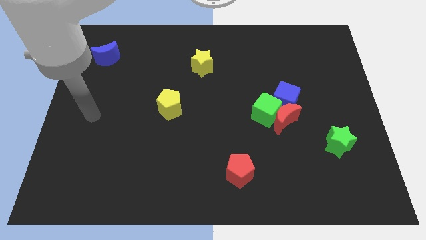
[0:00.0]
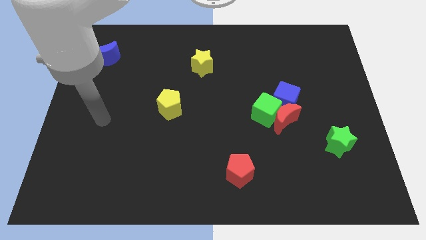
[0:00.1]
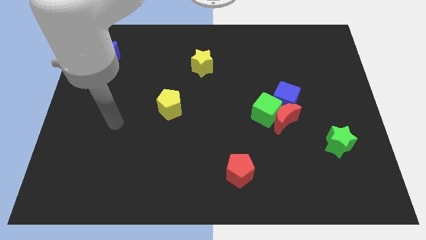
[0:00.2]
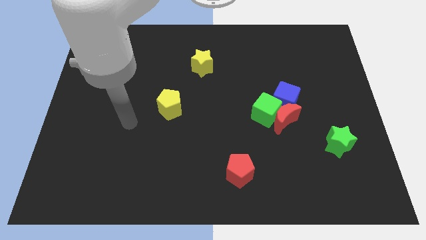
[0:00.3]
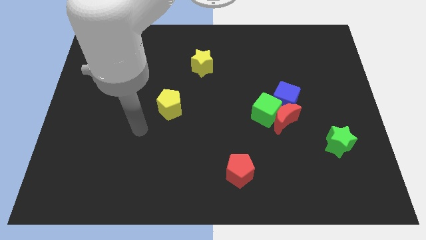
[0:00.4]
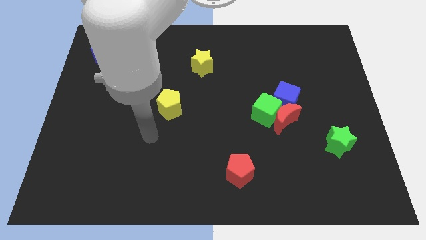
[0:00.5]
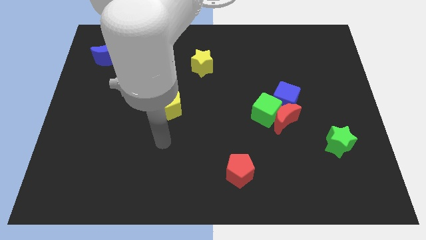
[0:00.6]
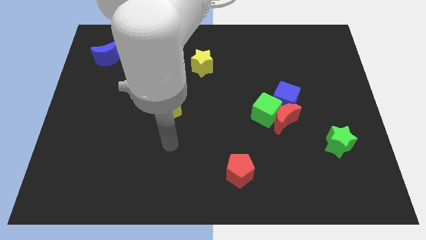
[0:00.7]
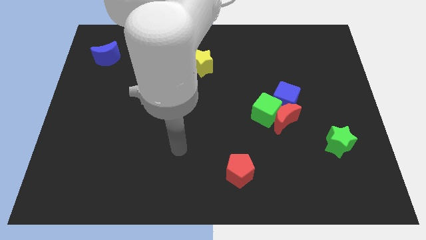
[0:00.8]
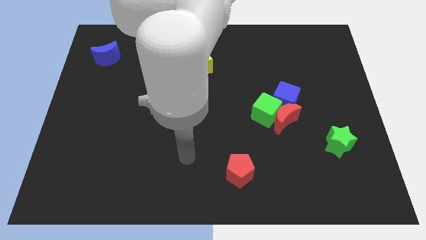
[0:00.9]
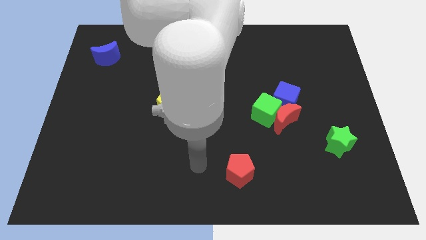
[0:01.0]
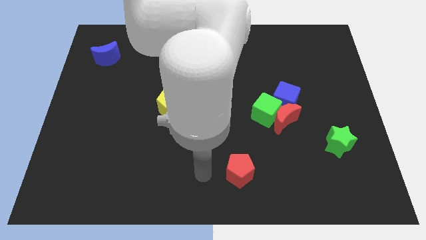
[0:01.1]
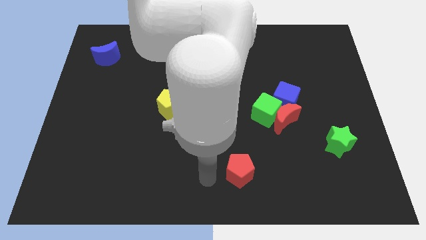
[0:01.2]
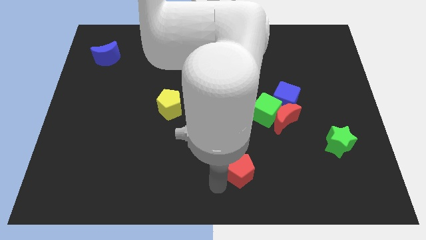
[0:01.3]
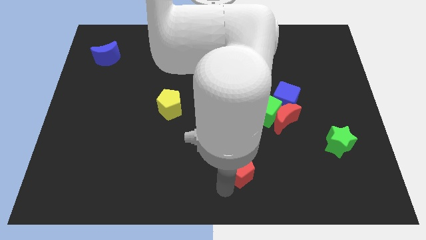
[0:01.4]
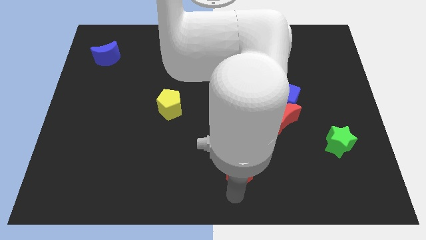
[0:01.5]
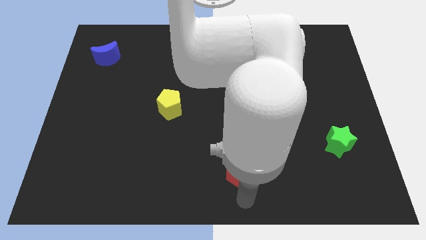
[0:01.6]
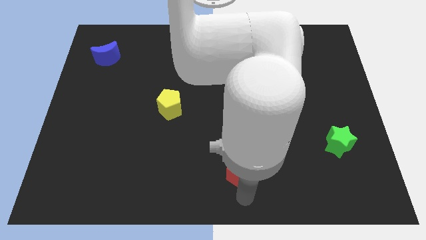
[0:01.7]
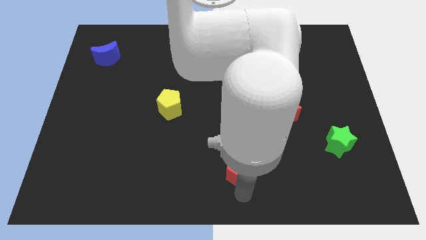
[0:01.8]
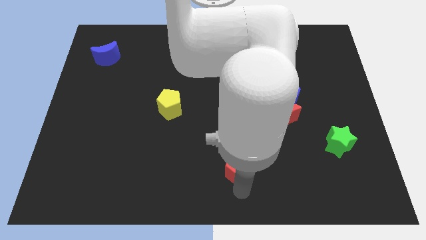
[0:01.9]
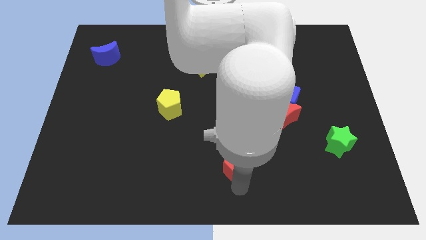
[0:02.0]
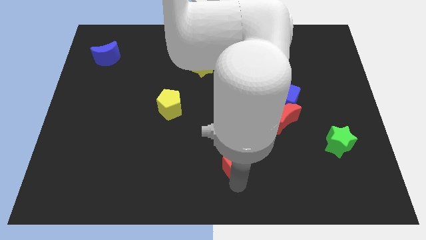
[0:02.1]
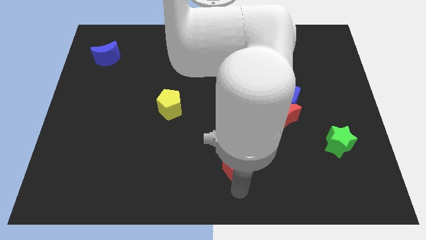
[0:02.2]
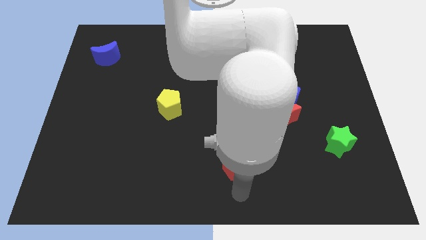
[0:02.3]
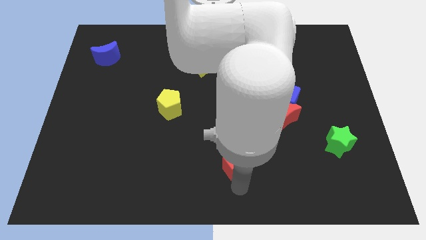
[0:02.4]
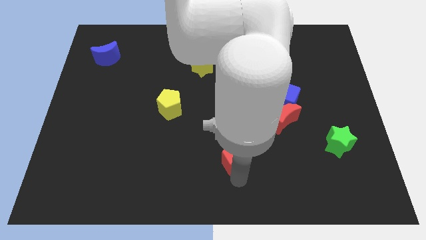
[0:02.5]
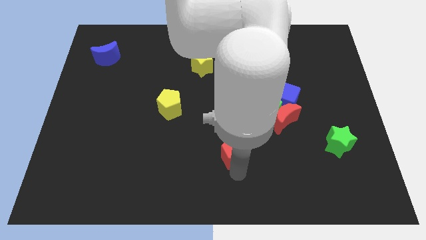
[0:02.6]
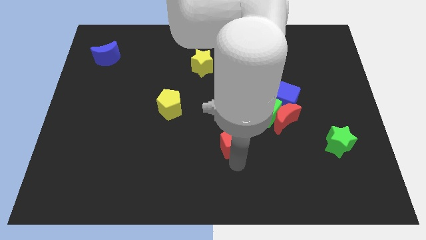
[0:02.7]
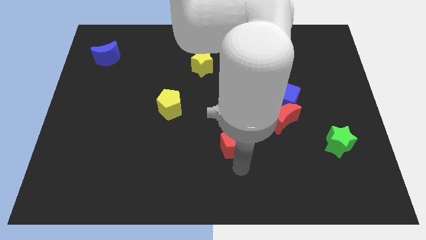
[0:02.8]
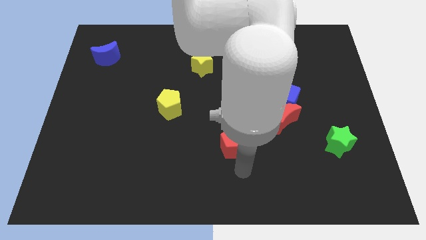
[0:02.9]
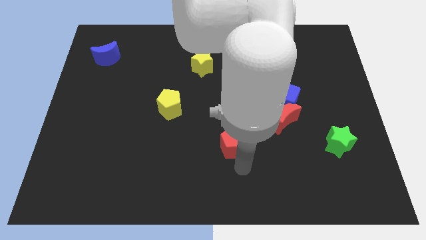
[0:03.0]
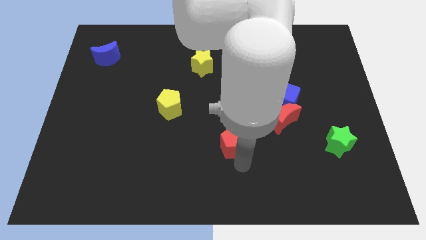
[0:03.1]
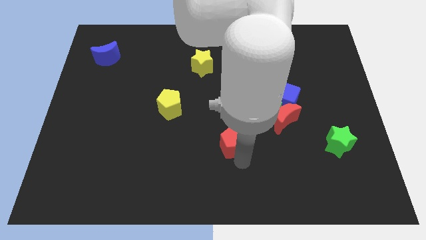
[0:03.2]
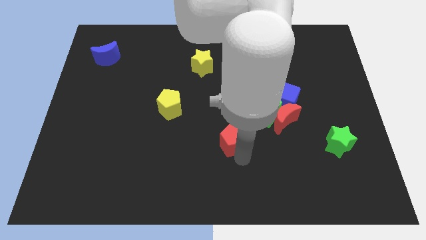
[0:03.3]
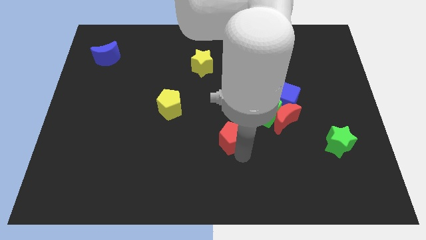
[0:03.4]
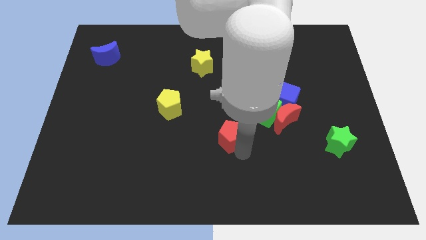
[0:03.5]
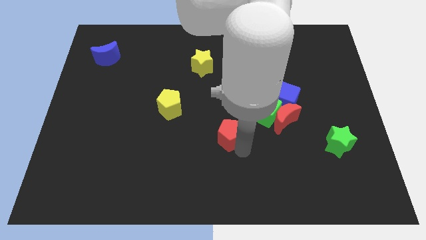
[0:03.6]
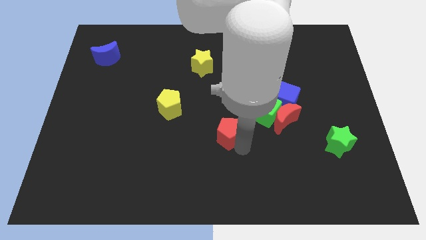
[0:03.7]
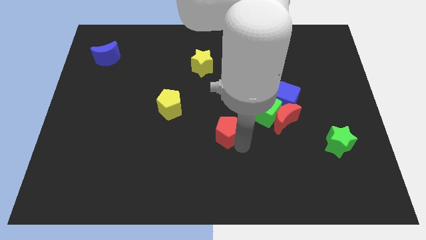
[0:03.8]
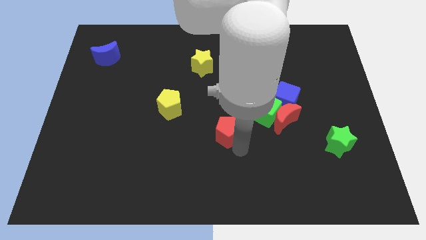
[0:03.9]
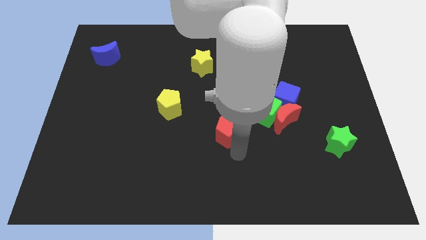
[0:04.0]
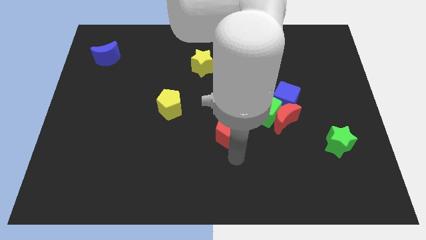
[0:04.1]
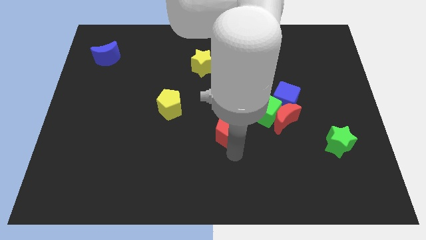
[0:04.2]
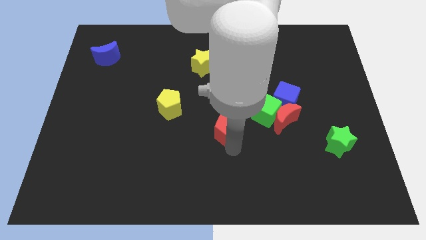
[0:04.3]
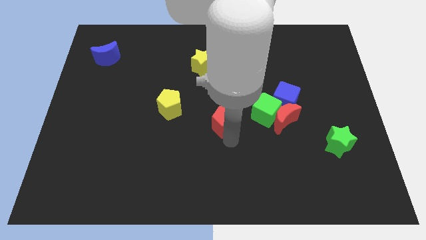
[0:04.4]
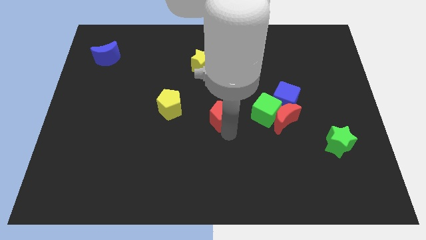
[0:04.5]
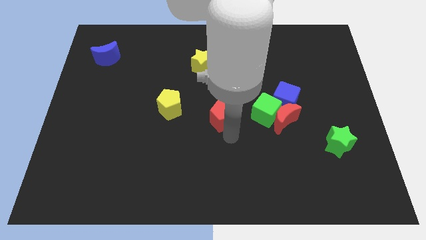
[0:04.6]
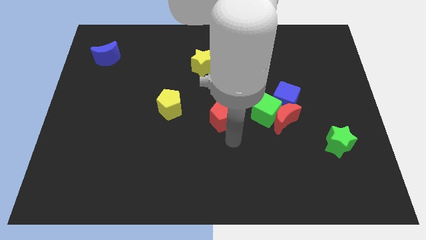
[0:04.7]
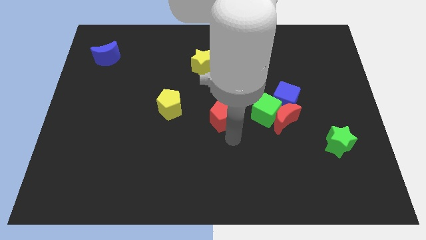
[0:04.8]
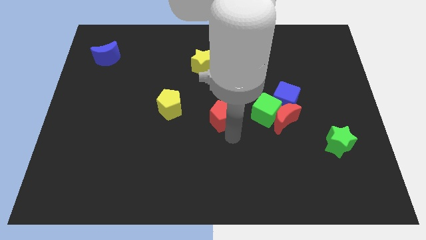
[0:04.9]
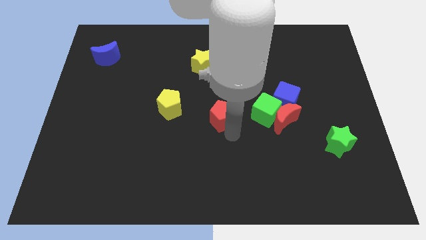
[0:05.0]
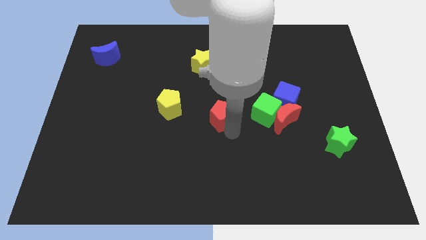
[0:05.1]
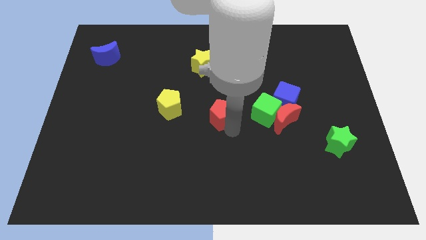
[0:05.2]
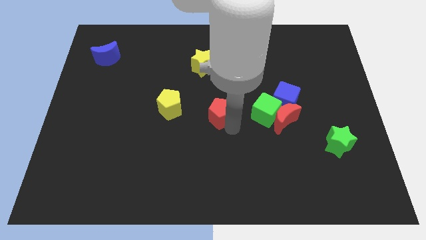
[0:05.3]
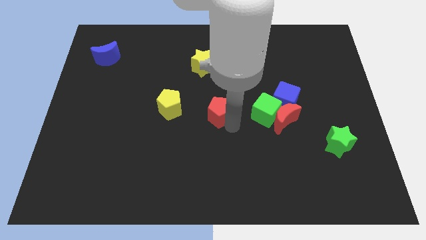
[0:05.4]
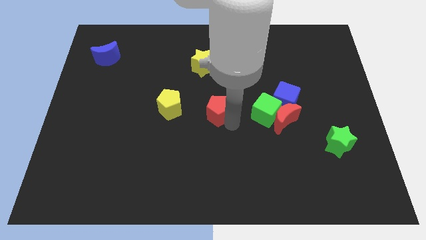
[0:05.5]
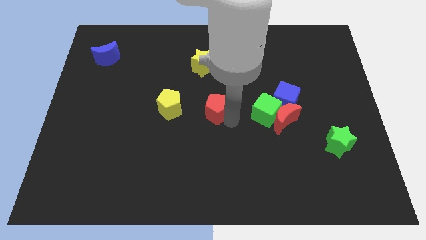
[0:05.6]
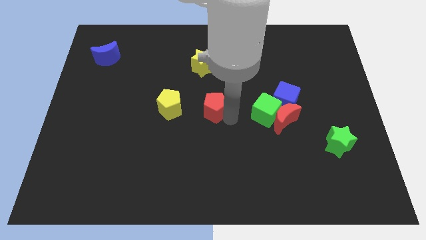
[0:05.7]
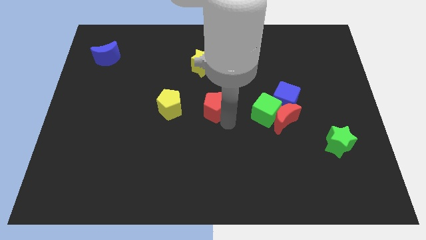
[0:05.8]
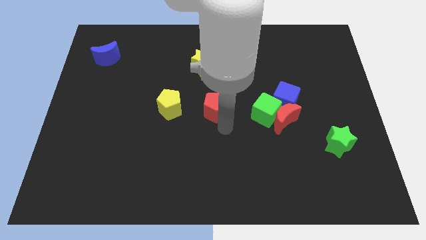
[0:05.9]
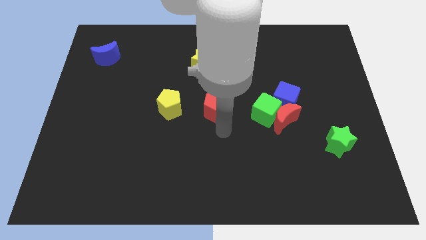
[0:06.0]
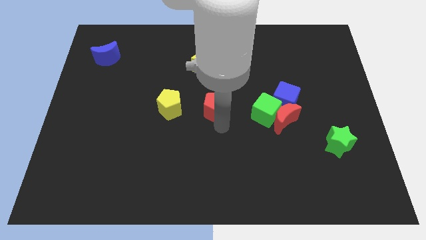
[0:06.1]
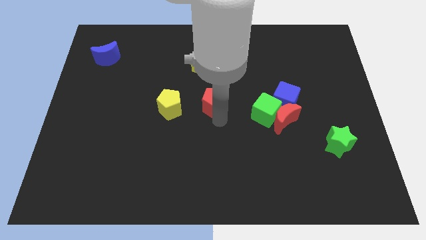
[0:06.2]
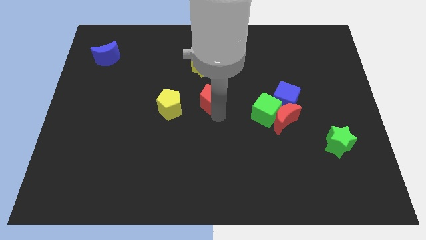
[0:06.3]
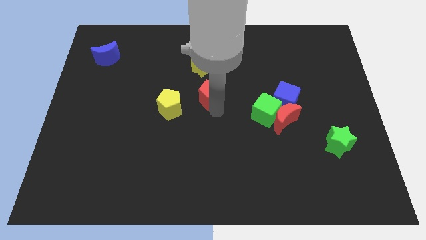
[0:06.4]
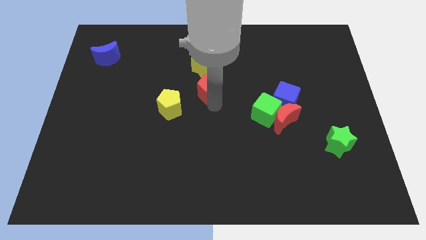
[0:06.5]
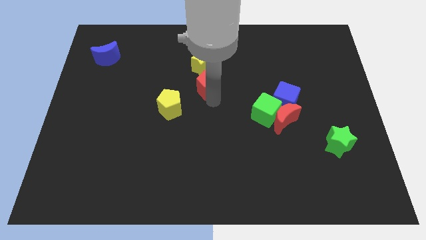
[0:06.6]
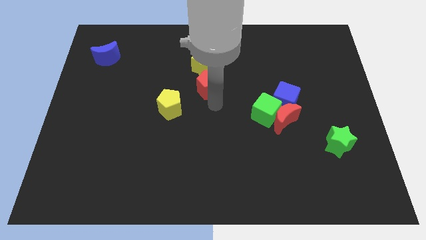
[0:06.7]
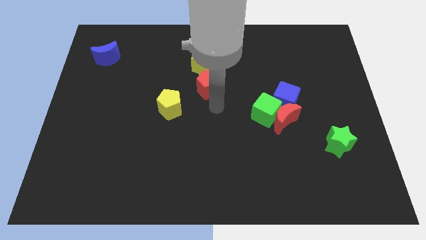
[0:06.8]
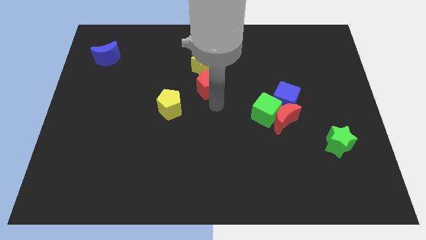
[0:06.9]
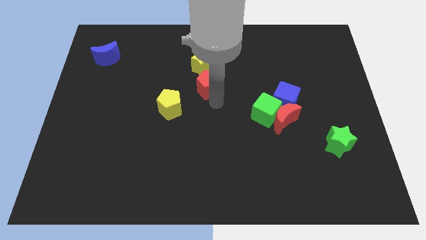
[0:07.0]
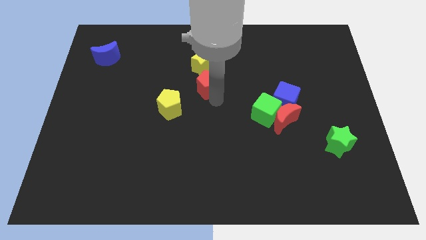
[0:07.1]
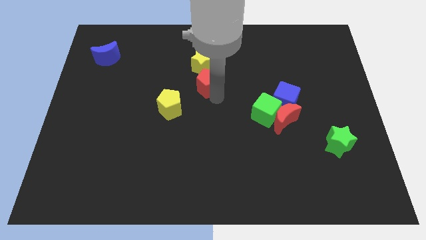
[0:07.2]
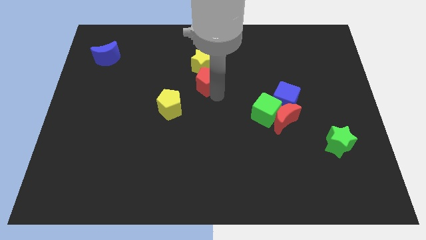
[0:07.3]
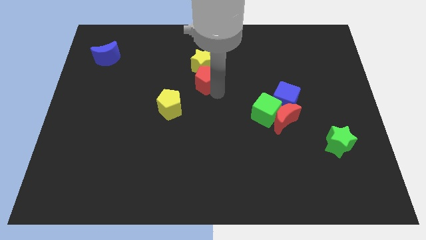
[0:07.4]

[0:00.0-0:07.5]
push the red pentagon to the yellow star

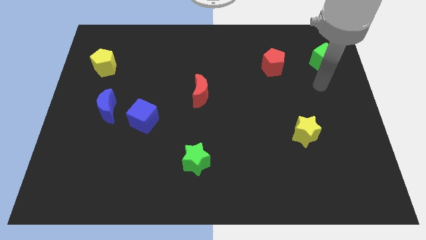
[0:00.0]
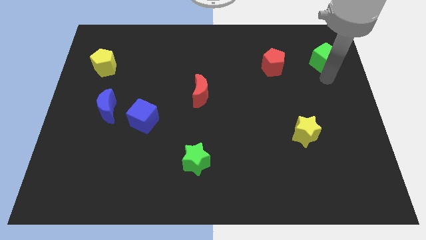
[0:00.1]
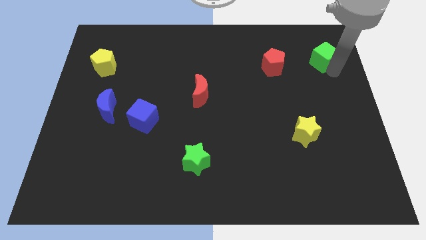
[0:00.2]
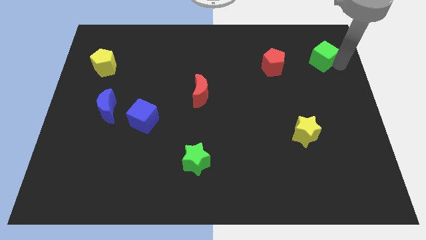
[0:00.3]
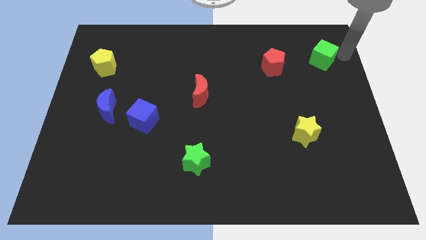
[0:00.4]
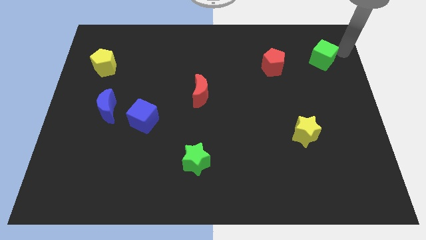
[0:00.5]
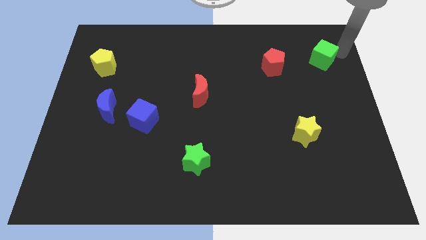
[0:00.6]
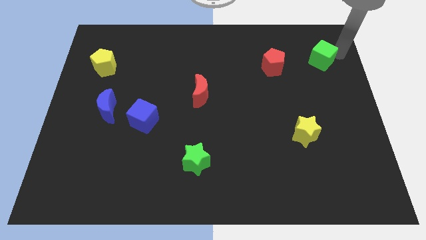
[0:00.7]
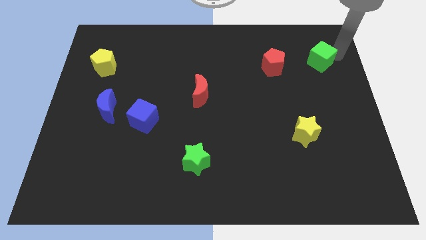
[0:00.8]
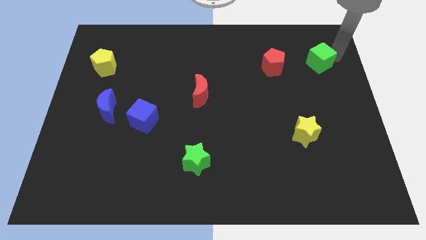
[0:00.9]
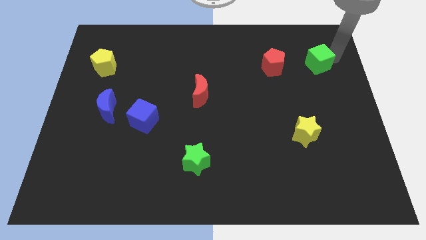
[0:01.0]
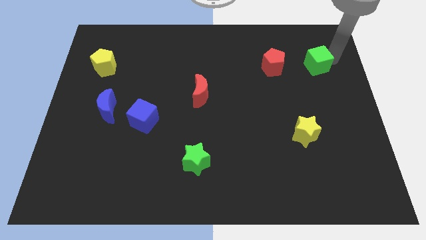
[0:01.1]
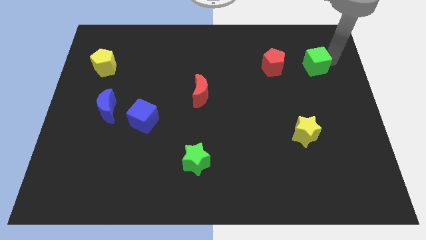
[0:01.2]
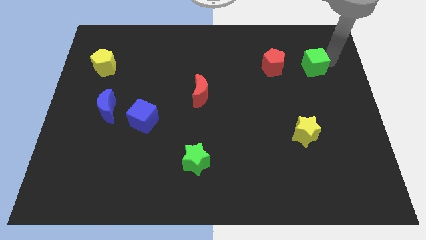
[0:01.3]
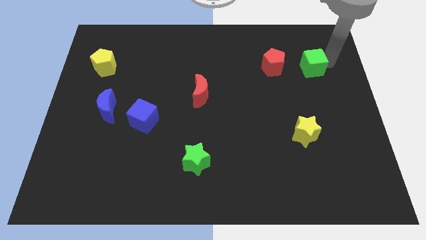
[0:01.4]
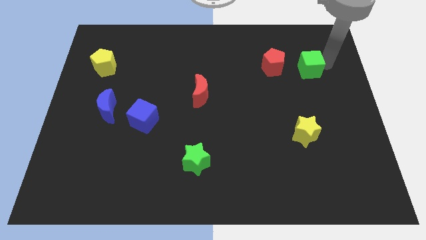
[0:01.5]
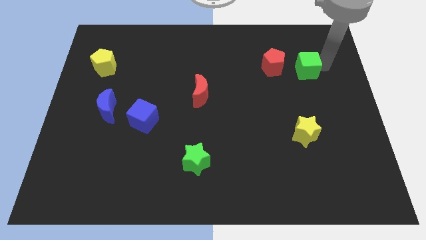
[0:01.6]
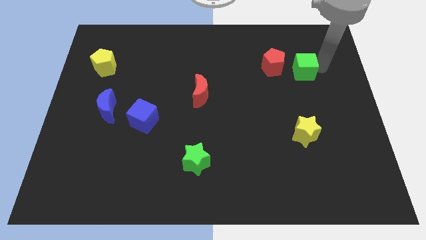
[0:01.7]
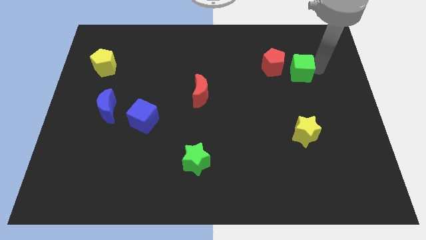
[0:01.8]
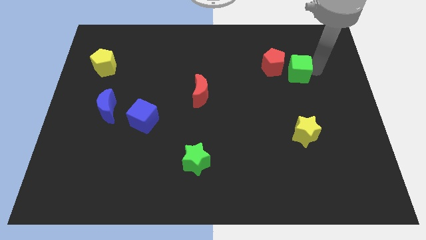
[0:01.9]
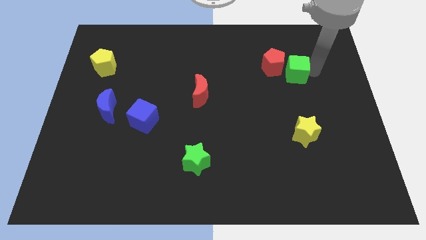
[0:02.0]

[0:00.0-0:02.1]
slide the green cube next to the red pentagon
